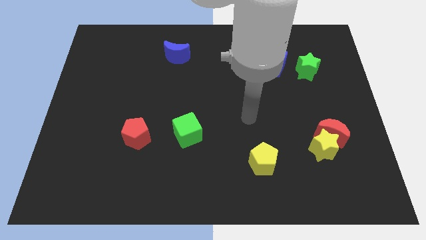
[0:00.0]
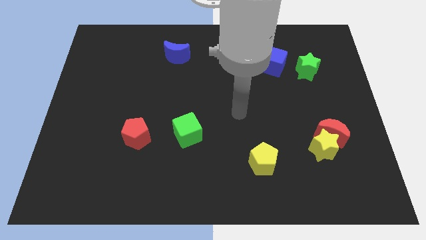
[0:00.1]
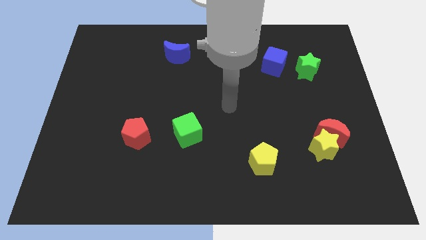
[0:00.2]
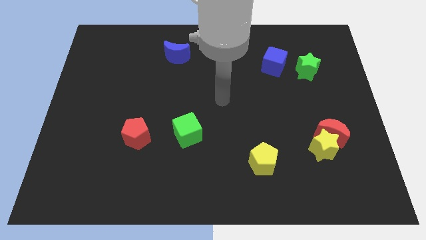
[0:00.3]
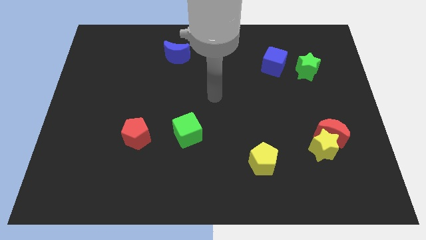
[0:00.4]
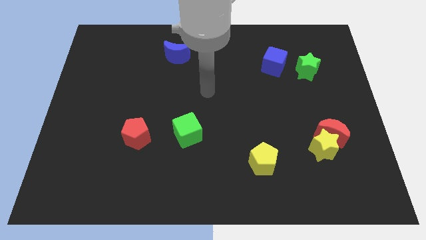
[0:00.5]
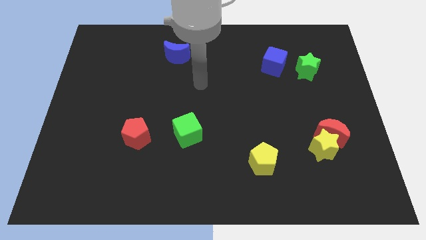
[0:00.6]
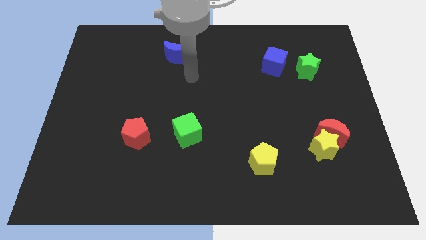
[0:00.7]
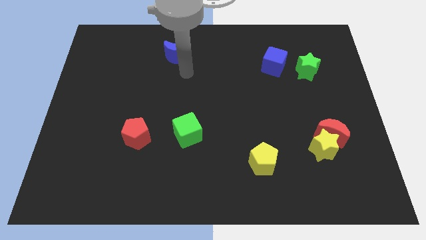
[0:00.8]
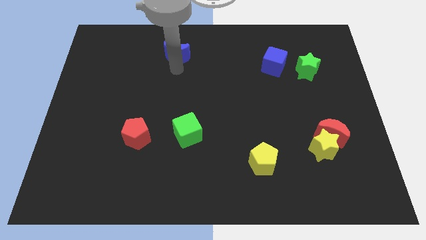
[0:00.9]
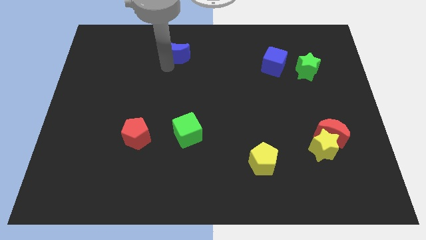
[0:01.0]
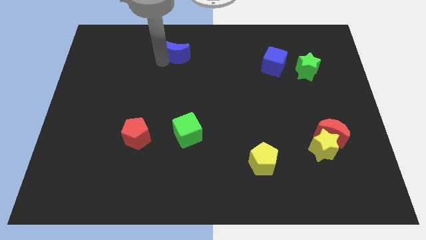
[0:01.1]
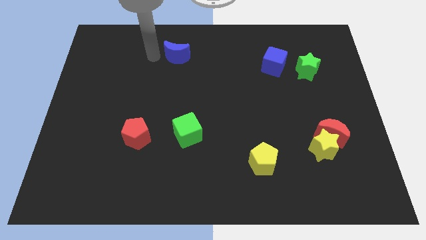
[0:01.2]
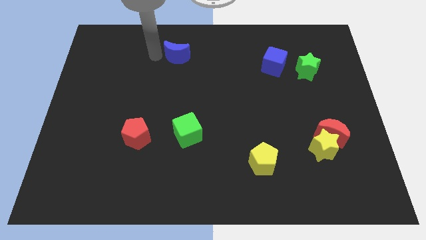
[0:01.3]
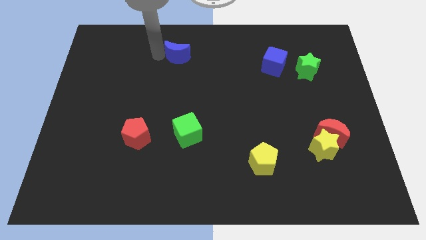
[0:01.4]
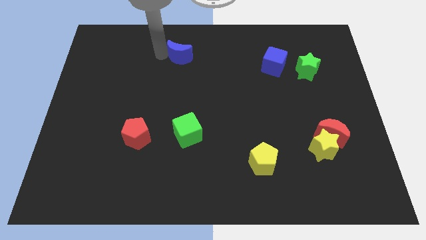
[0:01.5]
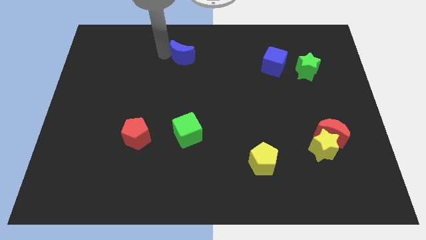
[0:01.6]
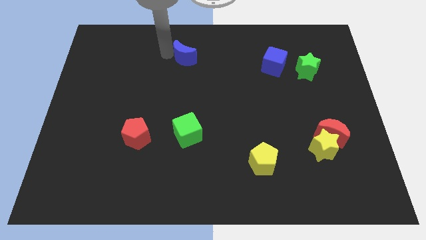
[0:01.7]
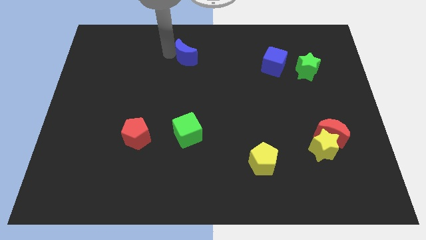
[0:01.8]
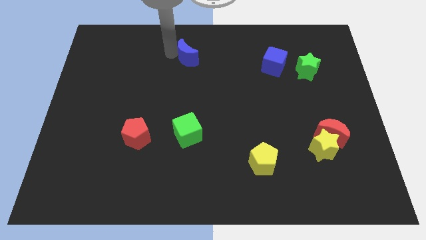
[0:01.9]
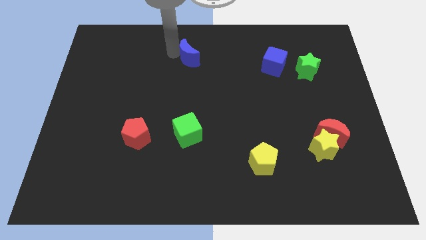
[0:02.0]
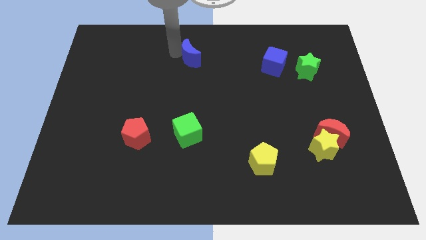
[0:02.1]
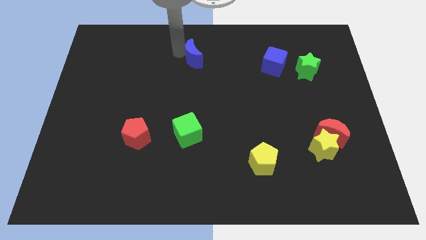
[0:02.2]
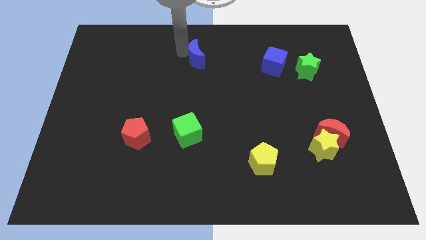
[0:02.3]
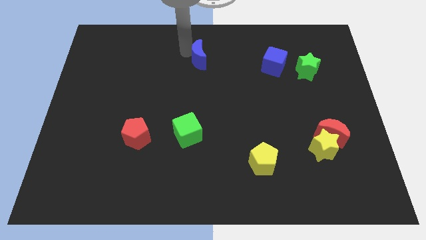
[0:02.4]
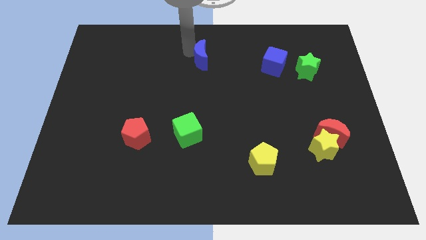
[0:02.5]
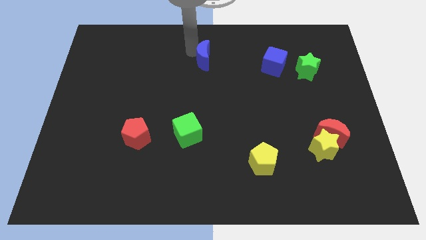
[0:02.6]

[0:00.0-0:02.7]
slide the blue moon to the right a bit

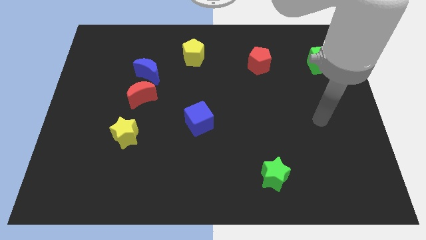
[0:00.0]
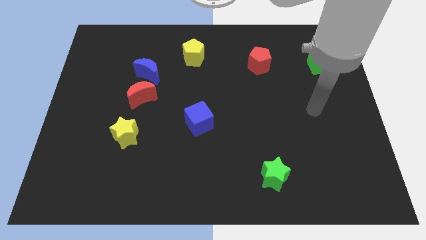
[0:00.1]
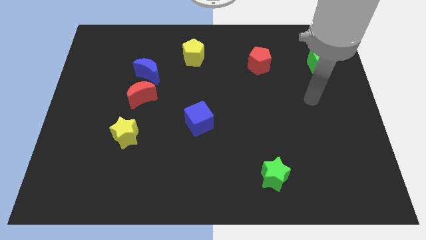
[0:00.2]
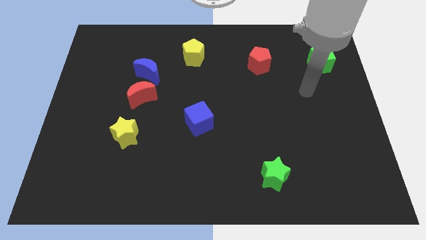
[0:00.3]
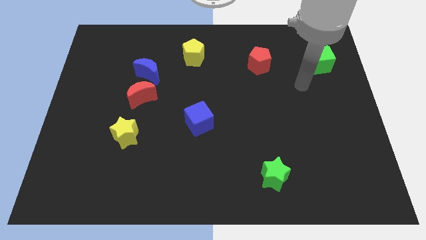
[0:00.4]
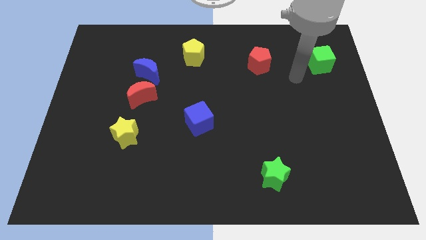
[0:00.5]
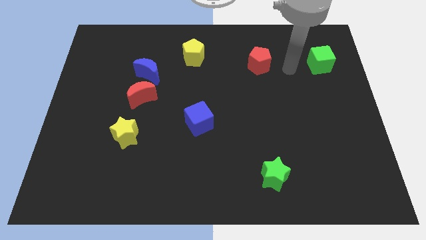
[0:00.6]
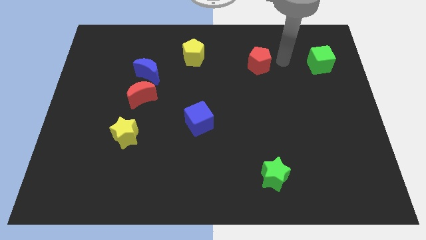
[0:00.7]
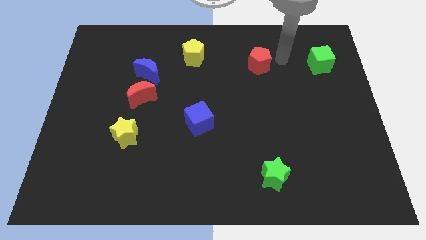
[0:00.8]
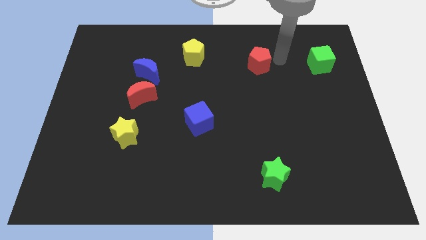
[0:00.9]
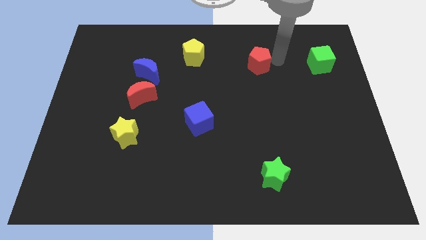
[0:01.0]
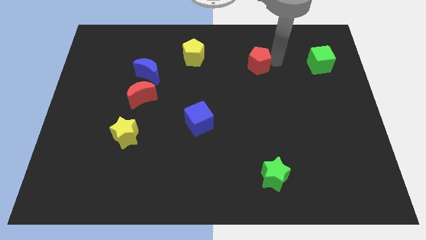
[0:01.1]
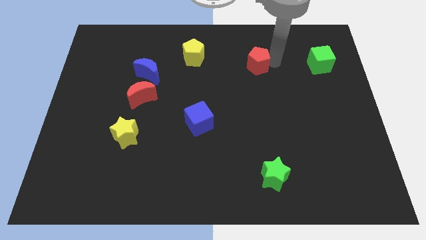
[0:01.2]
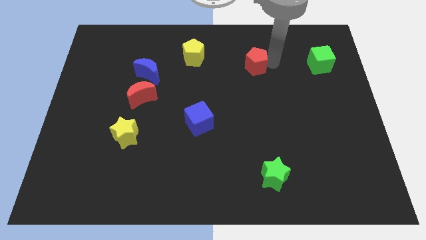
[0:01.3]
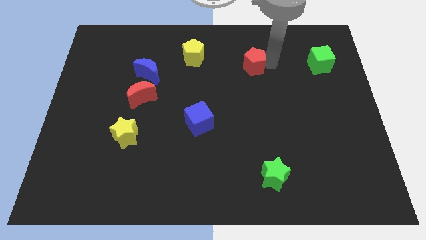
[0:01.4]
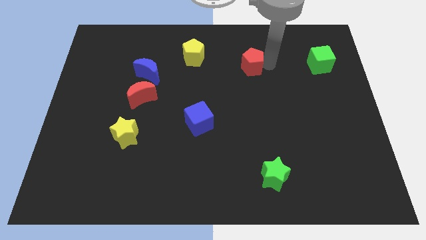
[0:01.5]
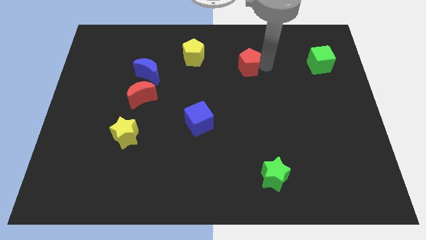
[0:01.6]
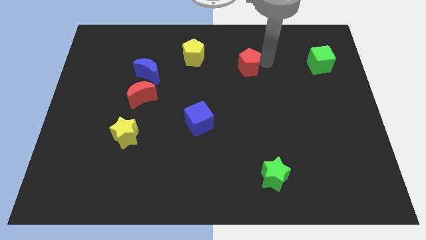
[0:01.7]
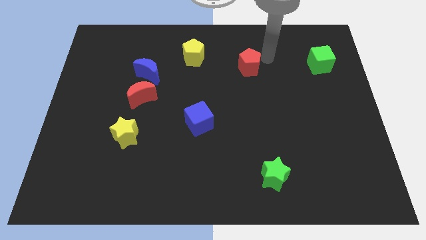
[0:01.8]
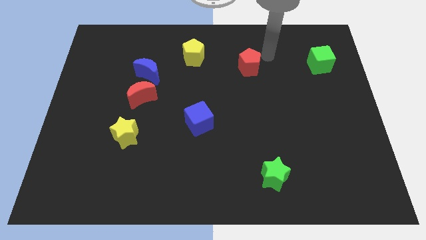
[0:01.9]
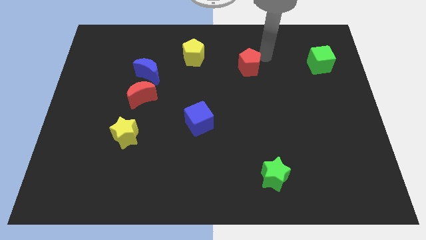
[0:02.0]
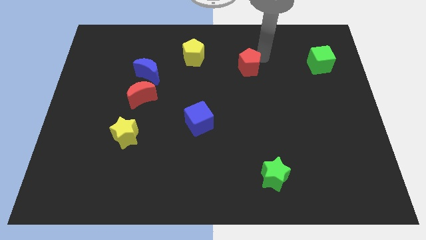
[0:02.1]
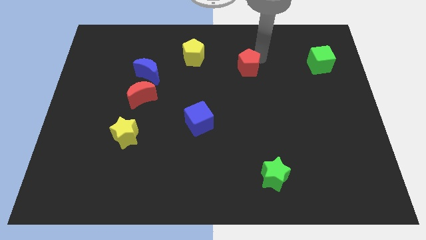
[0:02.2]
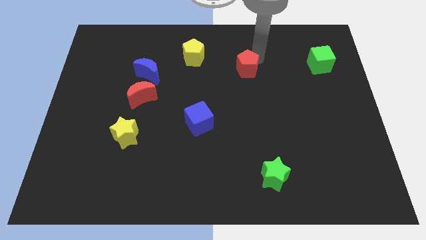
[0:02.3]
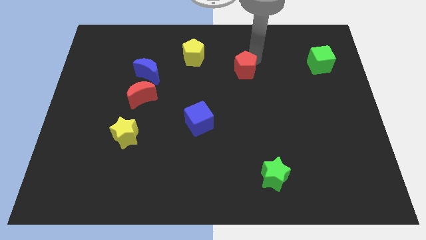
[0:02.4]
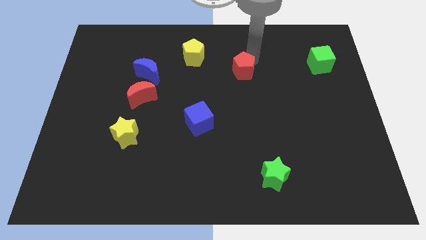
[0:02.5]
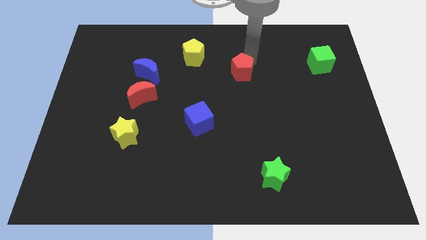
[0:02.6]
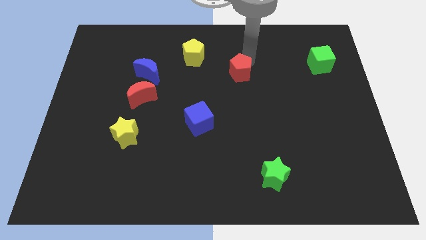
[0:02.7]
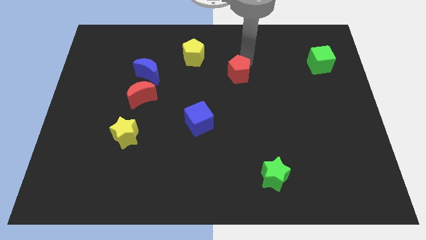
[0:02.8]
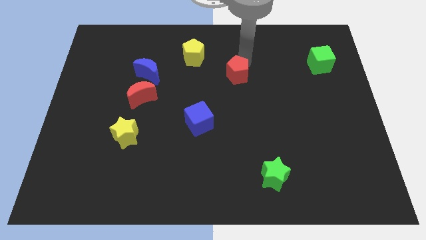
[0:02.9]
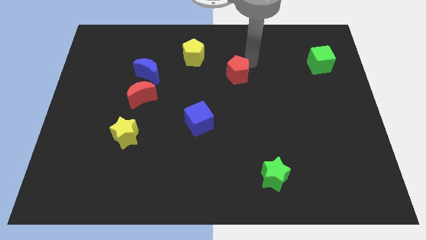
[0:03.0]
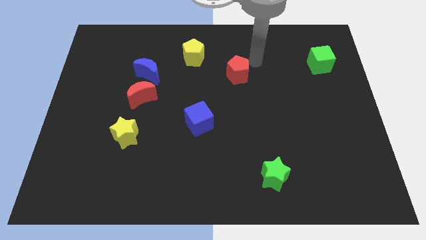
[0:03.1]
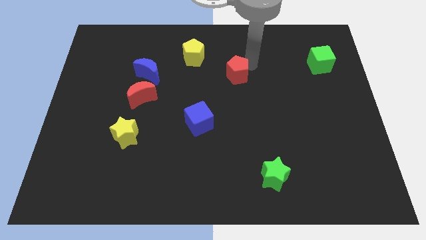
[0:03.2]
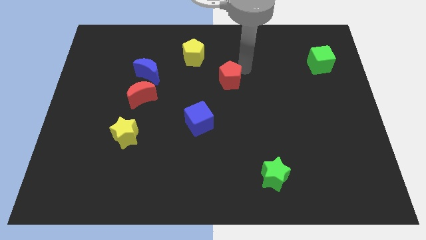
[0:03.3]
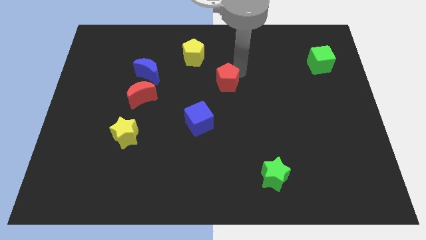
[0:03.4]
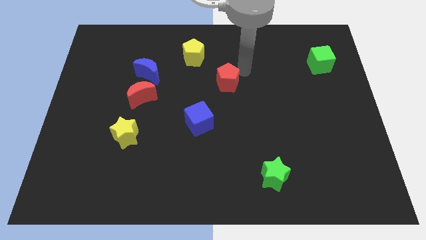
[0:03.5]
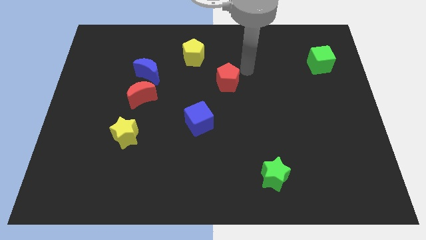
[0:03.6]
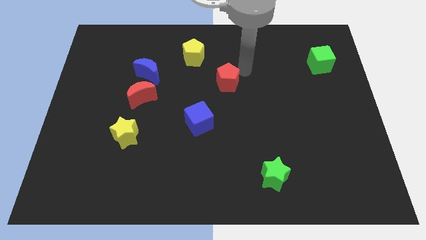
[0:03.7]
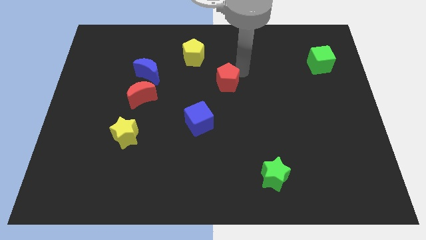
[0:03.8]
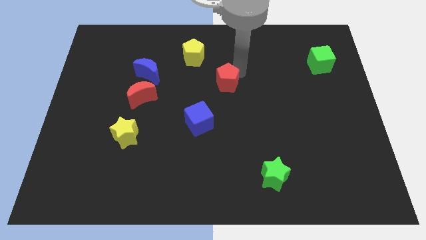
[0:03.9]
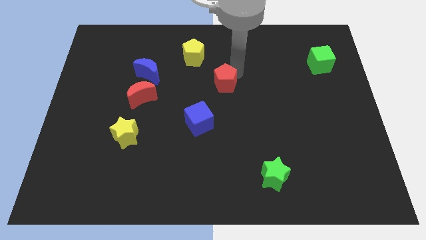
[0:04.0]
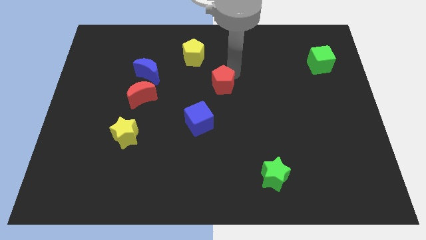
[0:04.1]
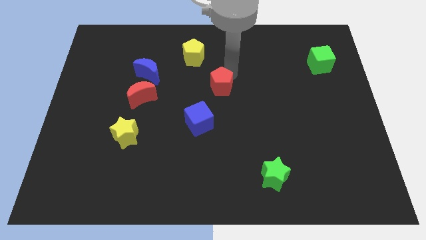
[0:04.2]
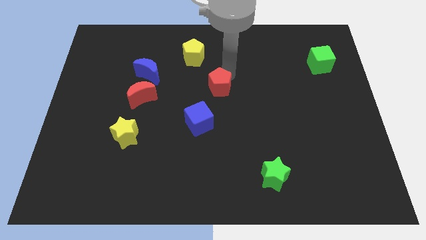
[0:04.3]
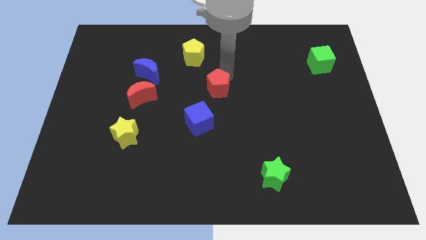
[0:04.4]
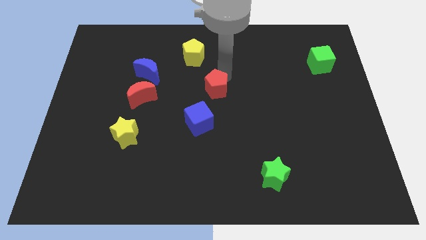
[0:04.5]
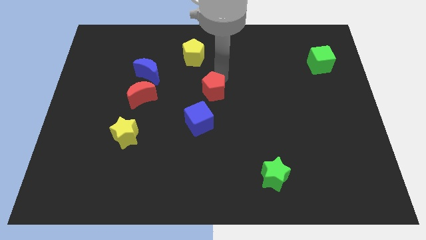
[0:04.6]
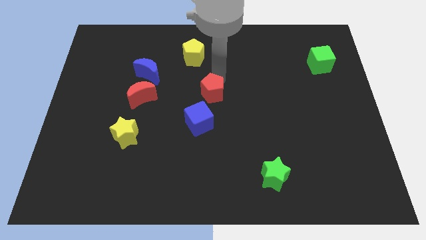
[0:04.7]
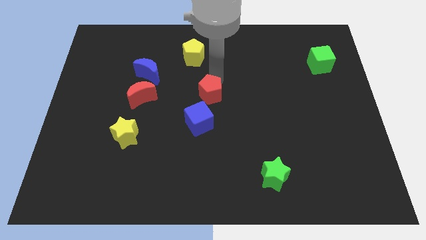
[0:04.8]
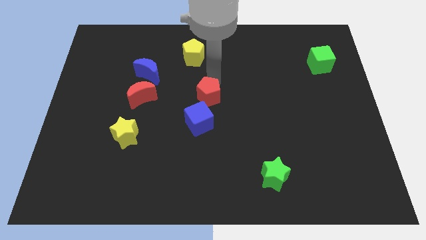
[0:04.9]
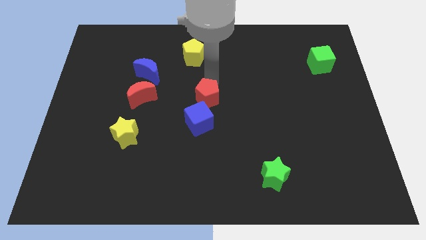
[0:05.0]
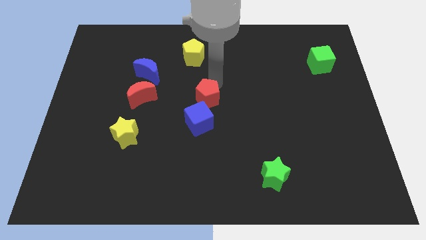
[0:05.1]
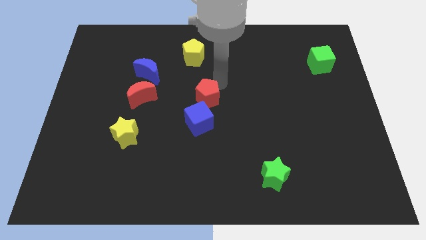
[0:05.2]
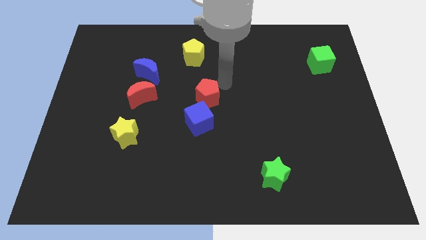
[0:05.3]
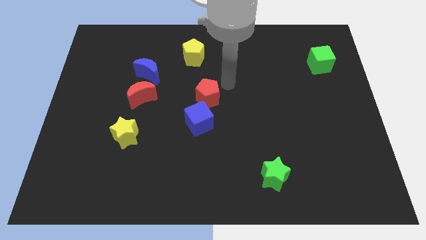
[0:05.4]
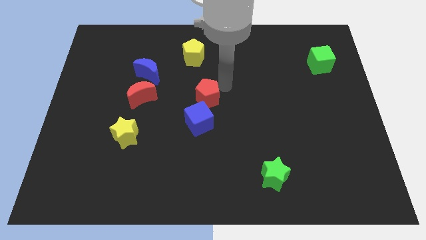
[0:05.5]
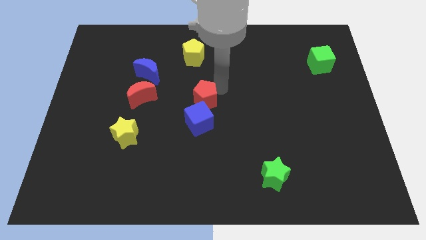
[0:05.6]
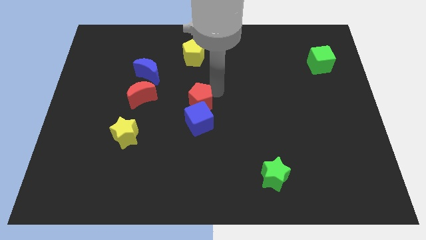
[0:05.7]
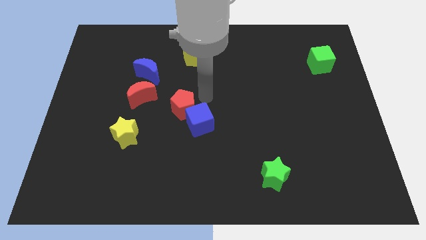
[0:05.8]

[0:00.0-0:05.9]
move the red pentagon downwards and left
